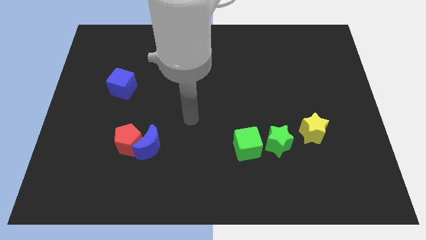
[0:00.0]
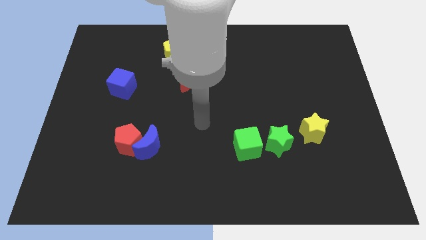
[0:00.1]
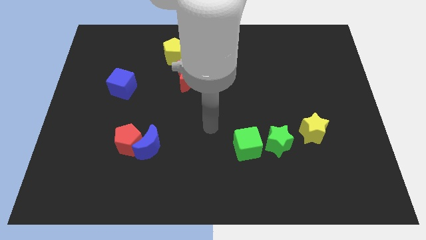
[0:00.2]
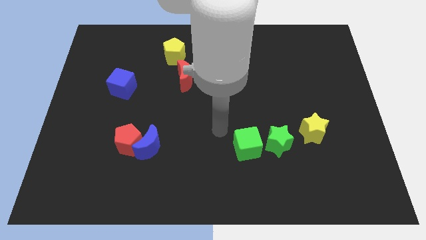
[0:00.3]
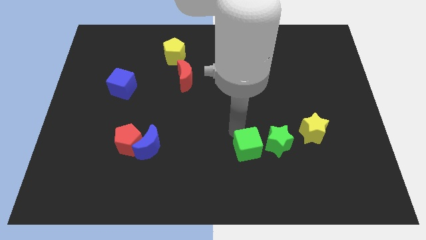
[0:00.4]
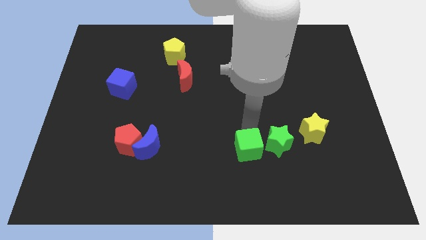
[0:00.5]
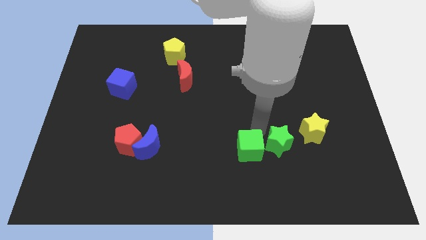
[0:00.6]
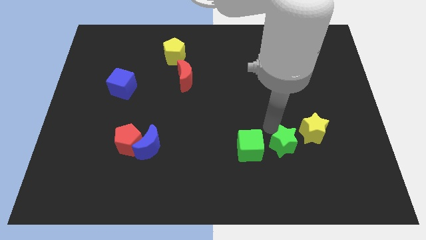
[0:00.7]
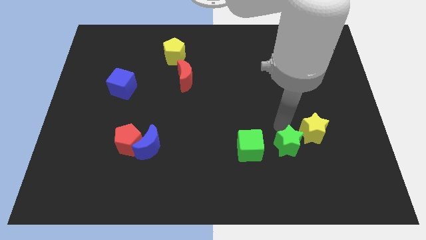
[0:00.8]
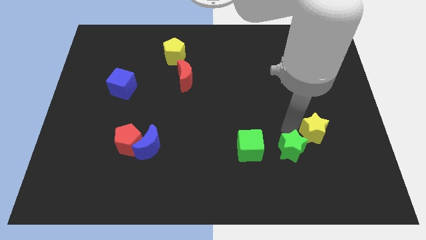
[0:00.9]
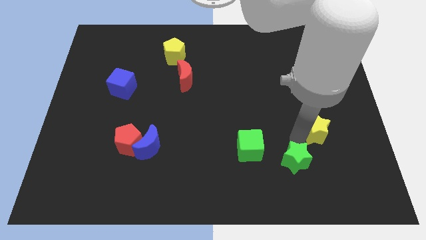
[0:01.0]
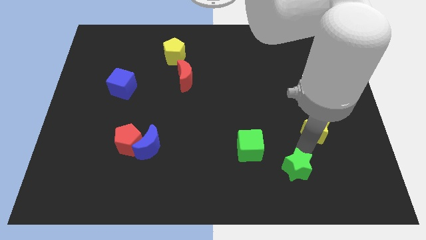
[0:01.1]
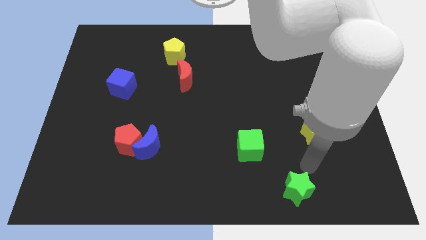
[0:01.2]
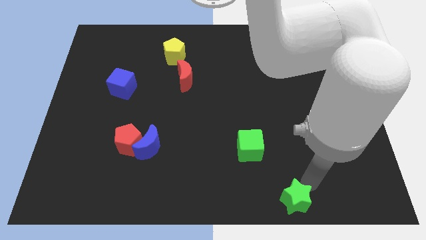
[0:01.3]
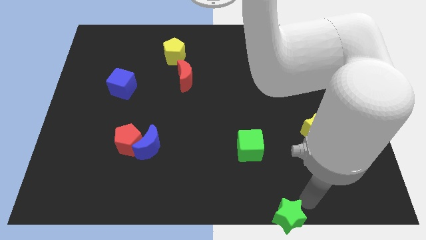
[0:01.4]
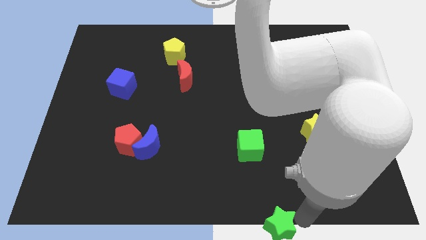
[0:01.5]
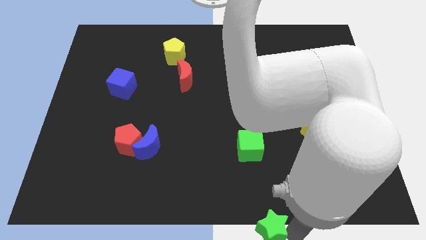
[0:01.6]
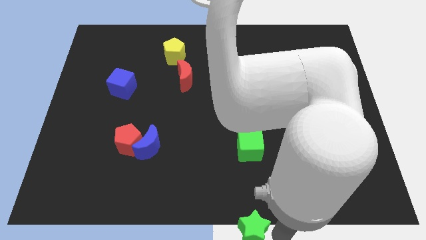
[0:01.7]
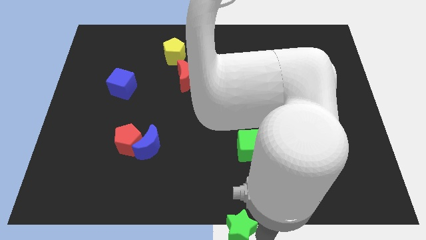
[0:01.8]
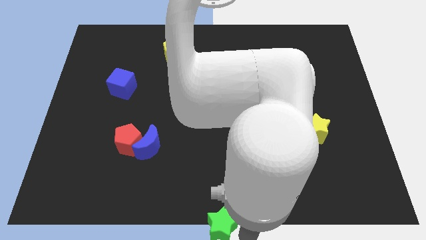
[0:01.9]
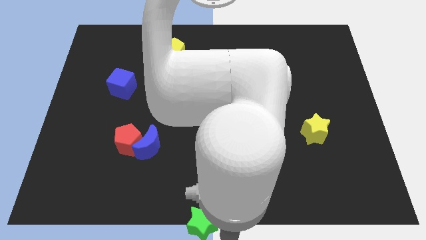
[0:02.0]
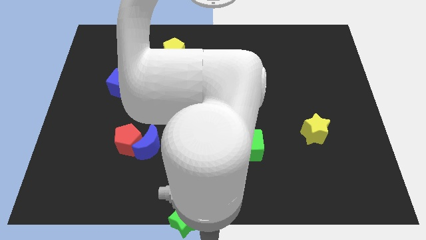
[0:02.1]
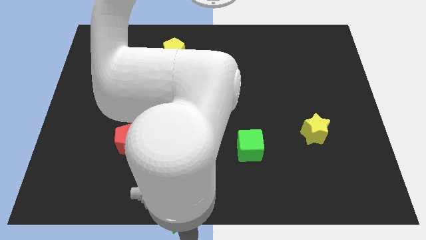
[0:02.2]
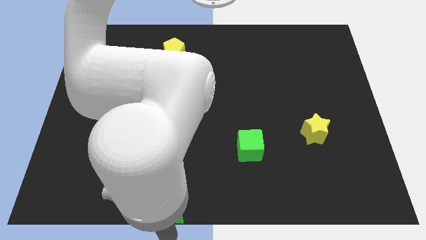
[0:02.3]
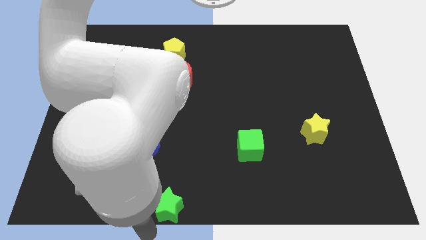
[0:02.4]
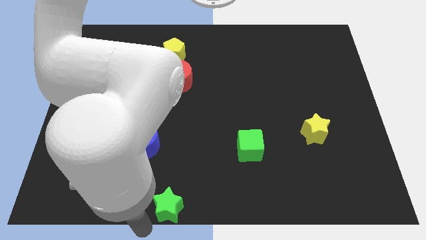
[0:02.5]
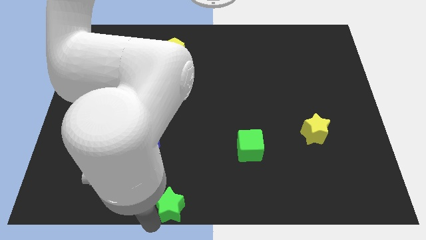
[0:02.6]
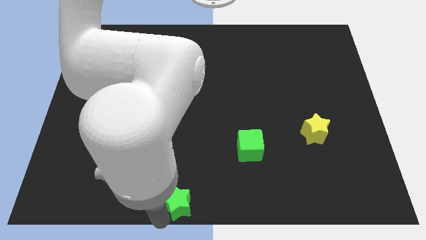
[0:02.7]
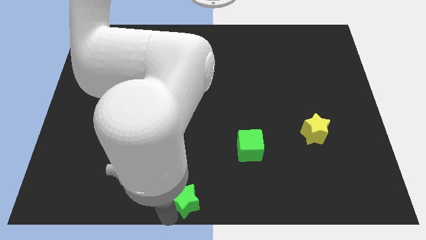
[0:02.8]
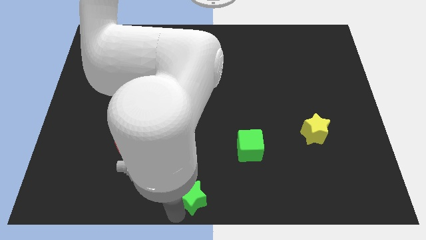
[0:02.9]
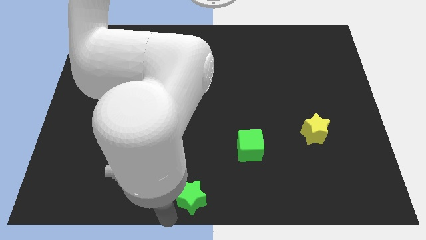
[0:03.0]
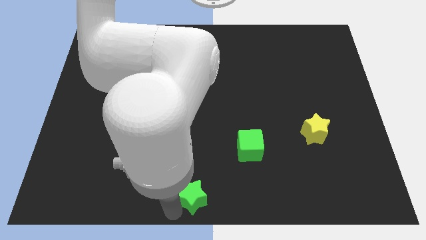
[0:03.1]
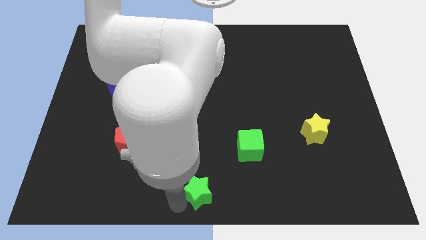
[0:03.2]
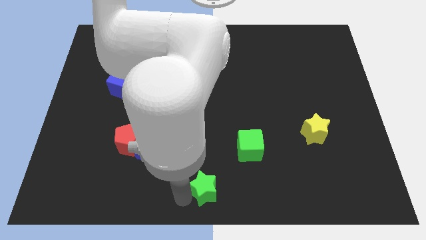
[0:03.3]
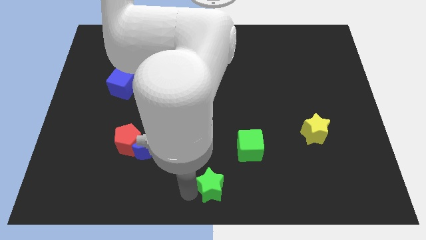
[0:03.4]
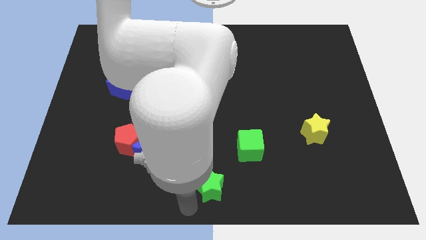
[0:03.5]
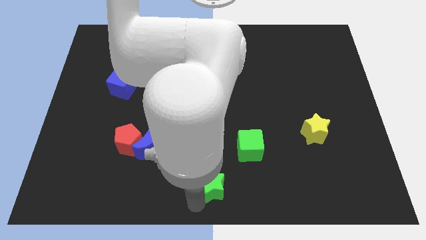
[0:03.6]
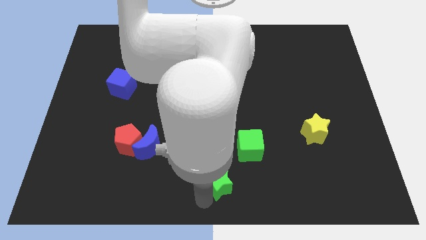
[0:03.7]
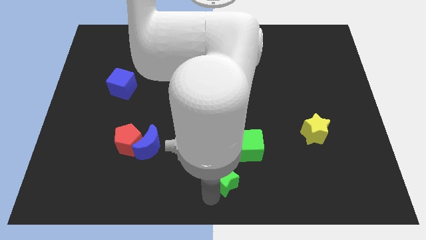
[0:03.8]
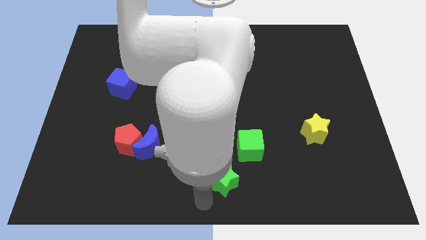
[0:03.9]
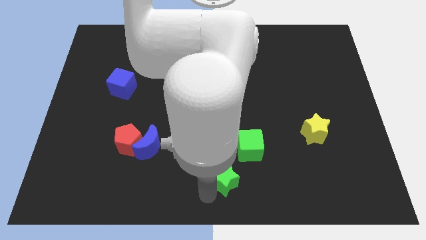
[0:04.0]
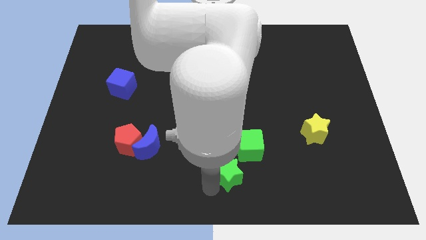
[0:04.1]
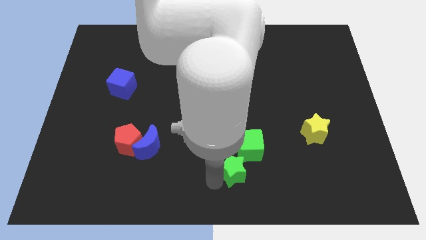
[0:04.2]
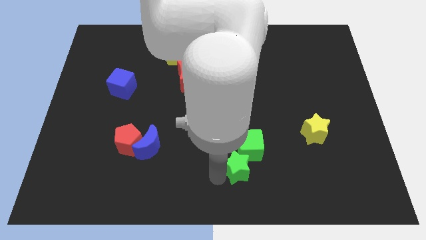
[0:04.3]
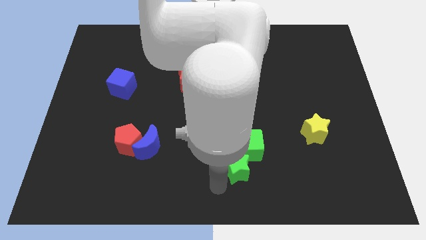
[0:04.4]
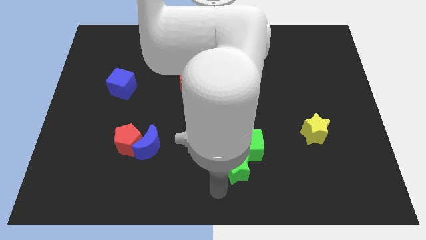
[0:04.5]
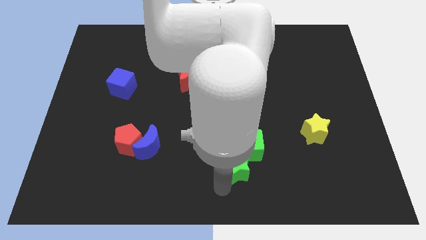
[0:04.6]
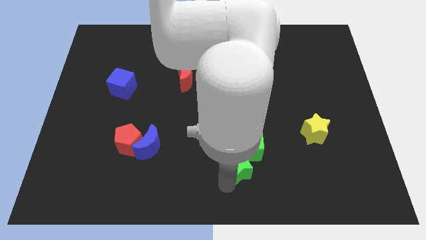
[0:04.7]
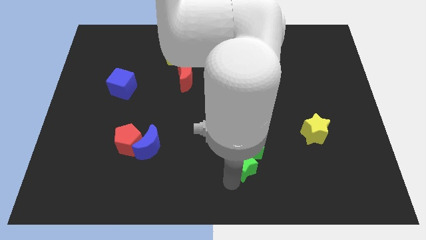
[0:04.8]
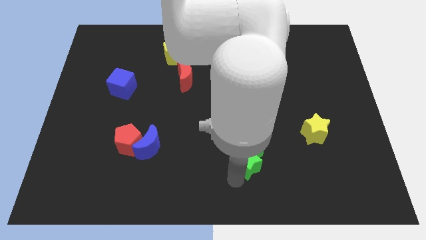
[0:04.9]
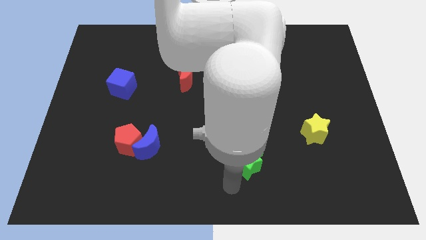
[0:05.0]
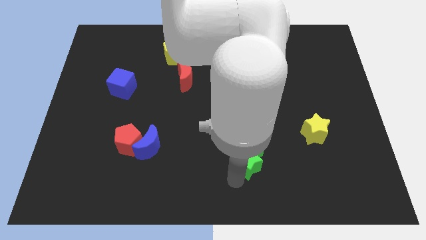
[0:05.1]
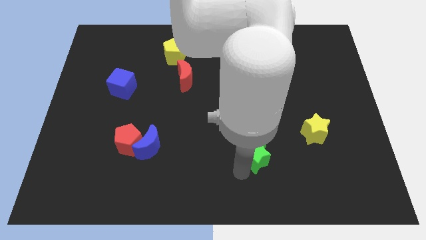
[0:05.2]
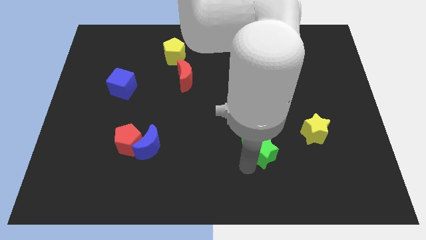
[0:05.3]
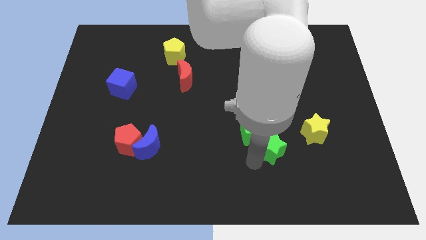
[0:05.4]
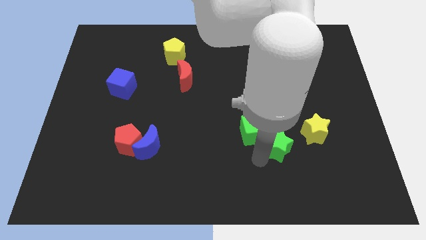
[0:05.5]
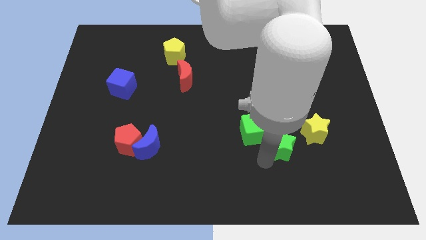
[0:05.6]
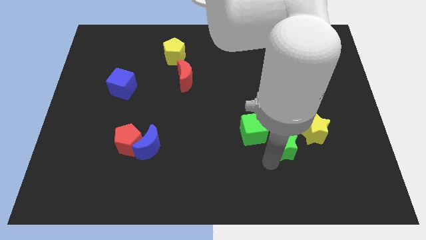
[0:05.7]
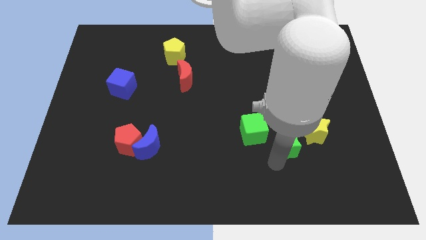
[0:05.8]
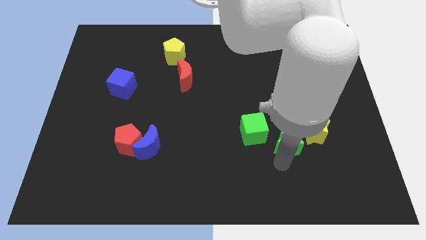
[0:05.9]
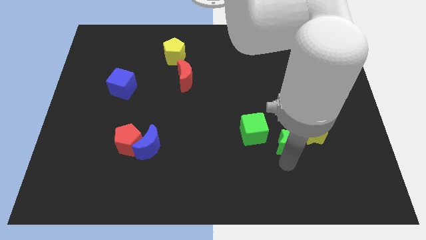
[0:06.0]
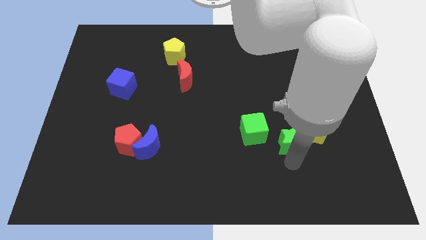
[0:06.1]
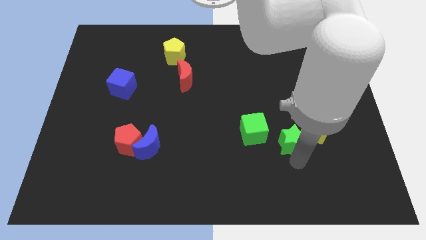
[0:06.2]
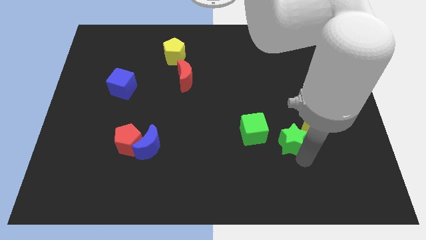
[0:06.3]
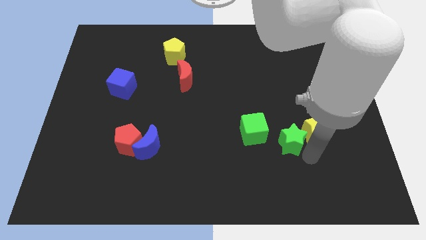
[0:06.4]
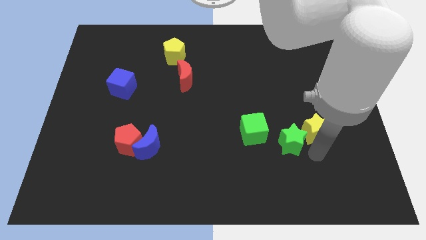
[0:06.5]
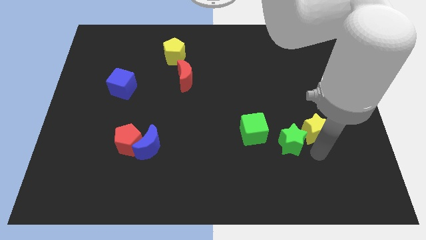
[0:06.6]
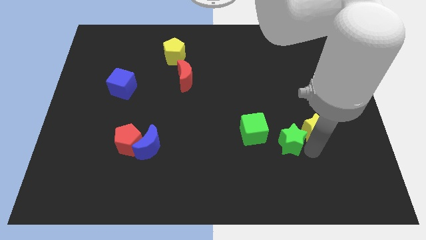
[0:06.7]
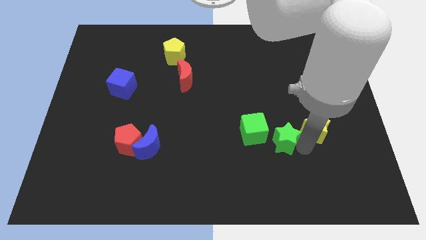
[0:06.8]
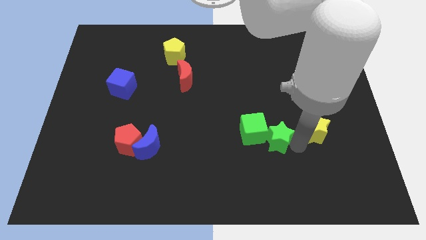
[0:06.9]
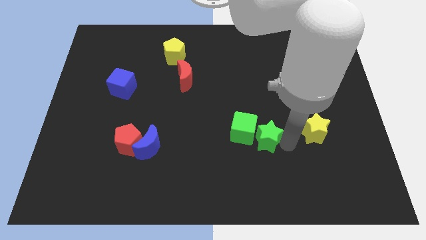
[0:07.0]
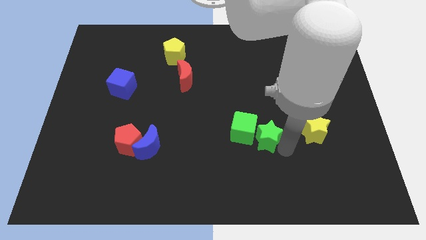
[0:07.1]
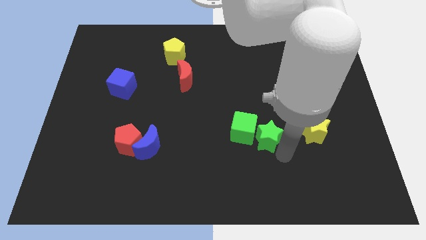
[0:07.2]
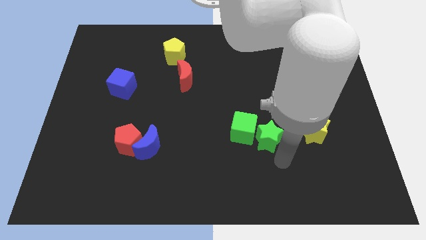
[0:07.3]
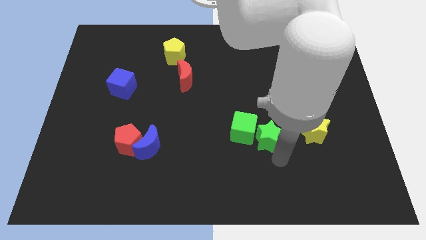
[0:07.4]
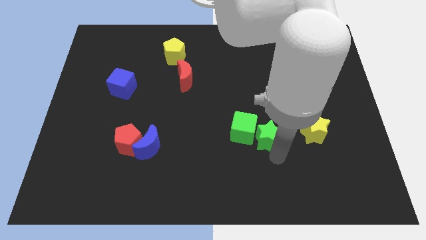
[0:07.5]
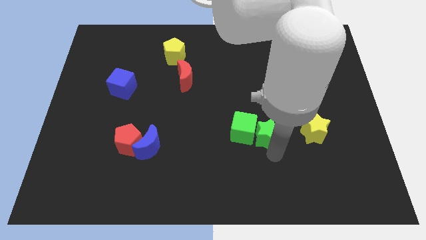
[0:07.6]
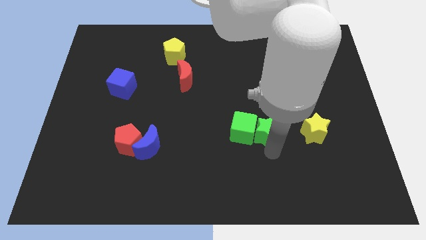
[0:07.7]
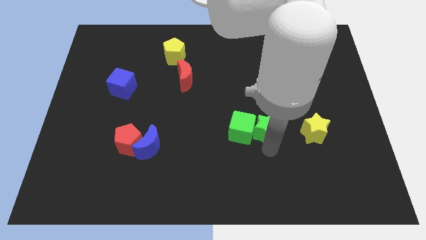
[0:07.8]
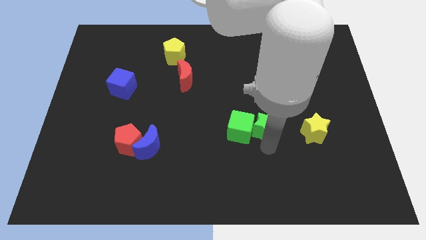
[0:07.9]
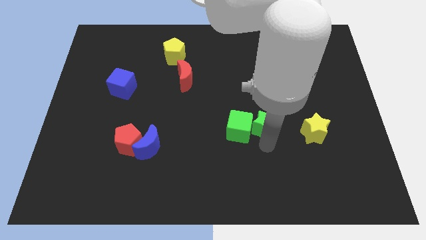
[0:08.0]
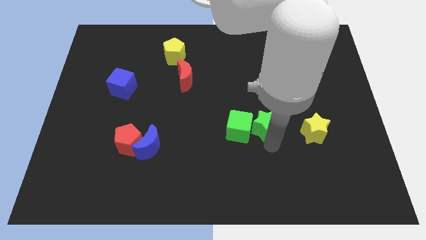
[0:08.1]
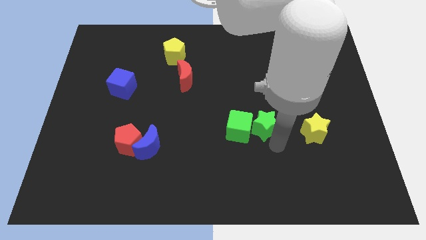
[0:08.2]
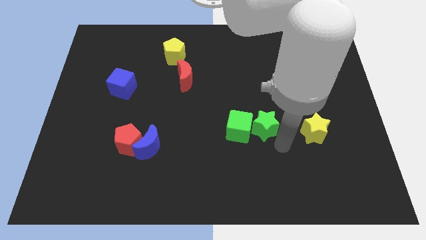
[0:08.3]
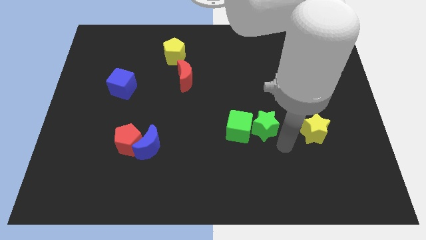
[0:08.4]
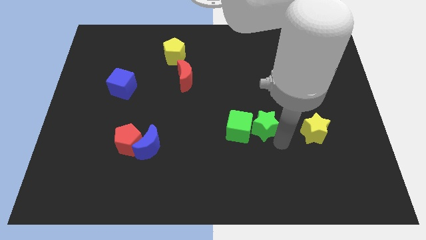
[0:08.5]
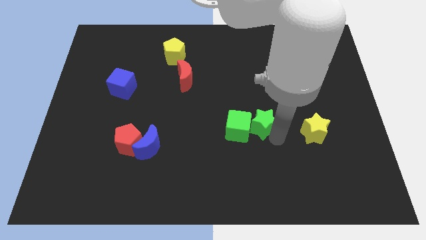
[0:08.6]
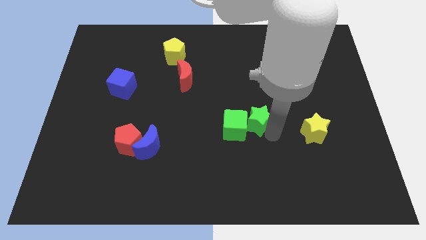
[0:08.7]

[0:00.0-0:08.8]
slightly push the green star upwards and to the left diagonally
